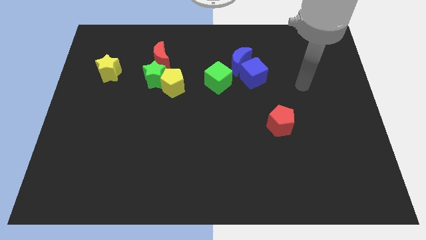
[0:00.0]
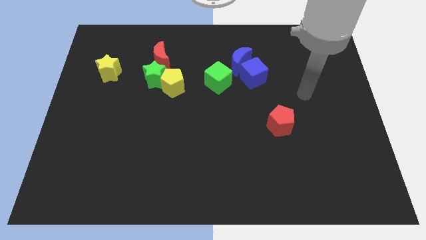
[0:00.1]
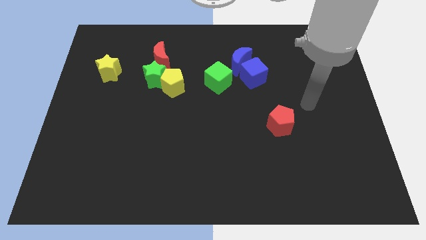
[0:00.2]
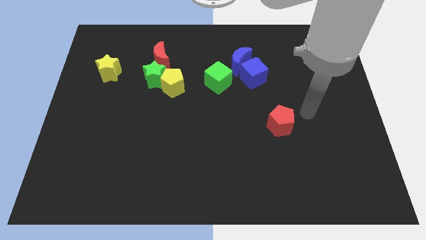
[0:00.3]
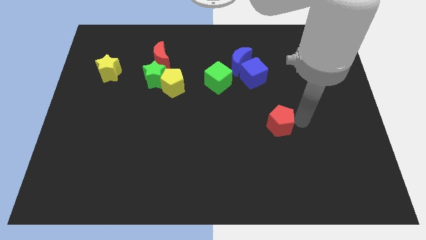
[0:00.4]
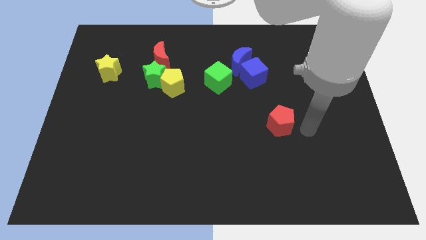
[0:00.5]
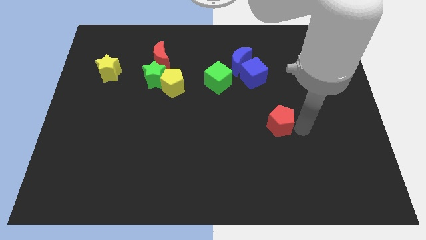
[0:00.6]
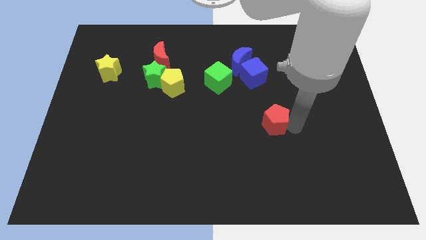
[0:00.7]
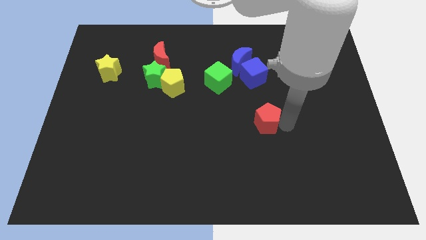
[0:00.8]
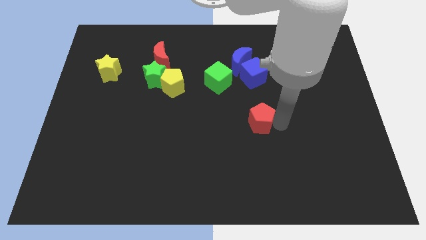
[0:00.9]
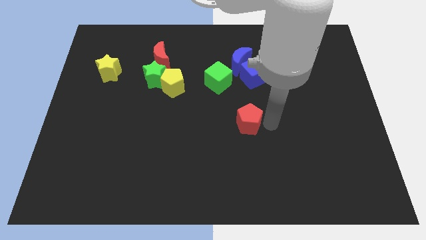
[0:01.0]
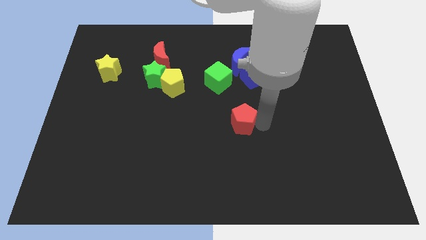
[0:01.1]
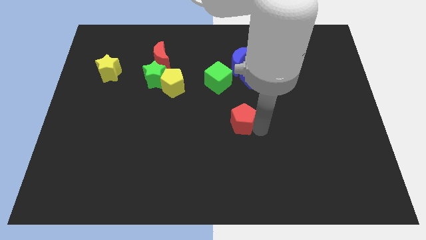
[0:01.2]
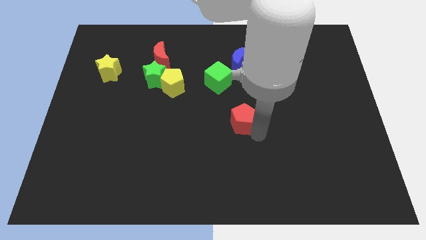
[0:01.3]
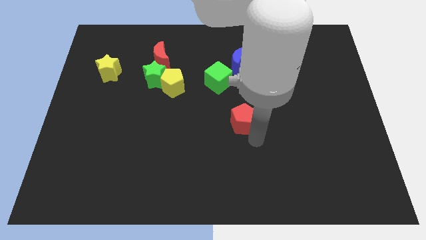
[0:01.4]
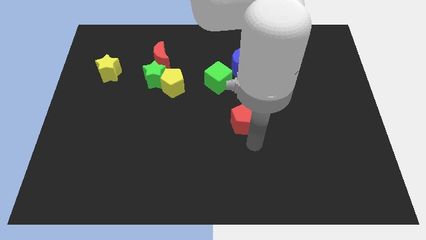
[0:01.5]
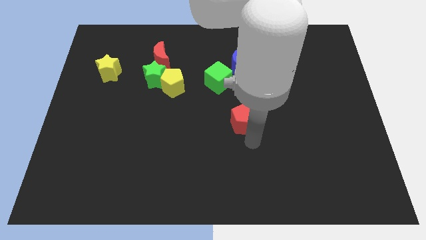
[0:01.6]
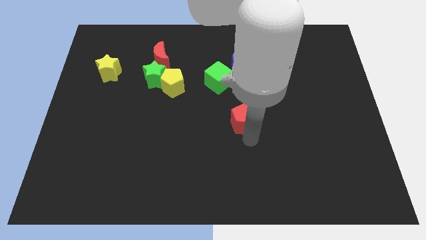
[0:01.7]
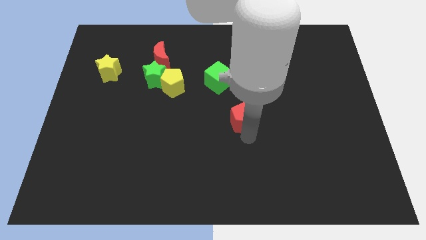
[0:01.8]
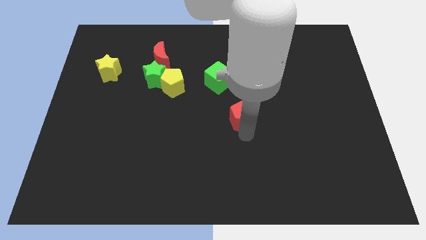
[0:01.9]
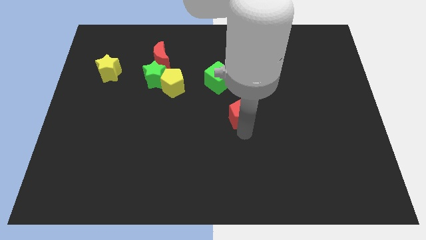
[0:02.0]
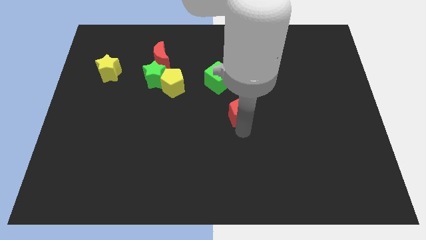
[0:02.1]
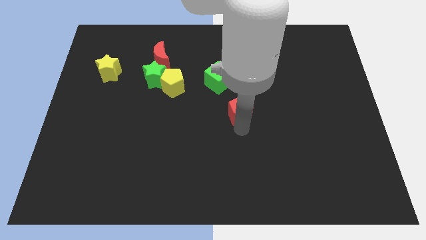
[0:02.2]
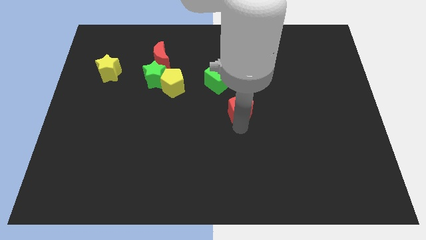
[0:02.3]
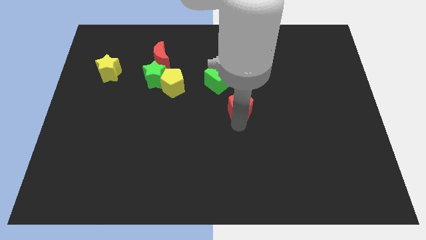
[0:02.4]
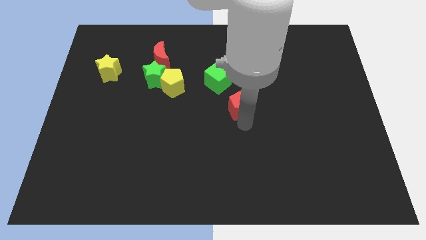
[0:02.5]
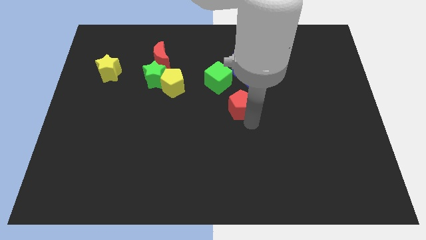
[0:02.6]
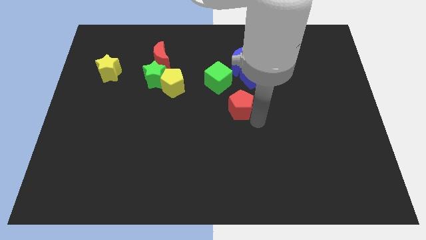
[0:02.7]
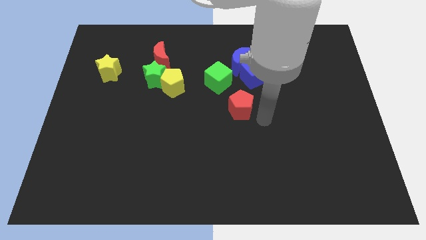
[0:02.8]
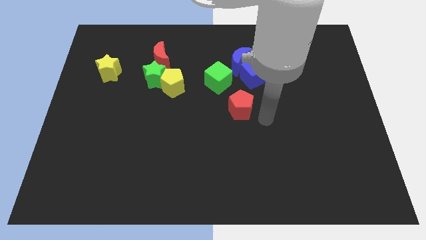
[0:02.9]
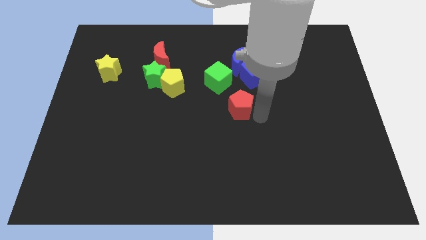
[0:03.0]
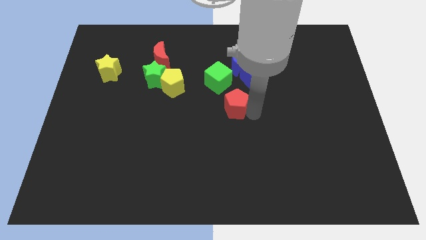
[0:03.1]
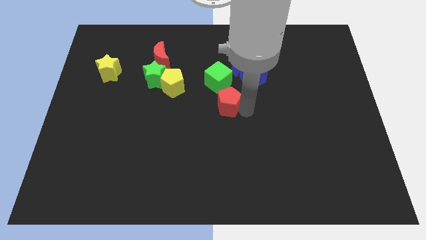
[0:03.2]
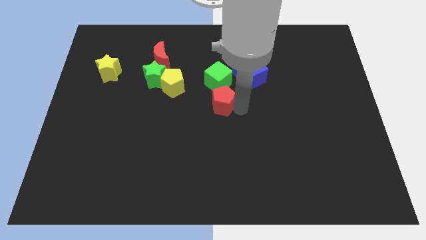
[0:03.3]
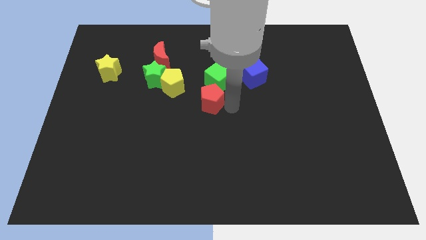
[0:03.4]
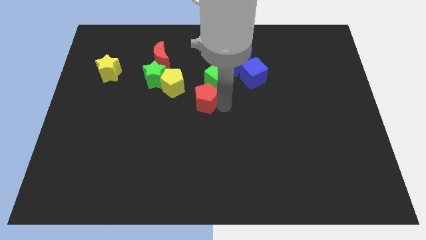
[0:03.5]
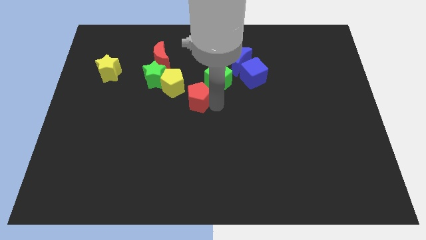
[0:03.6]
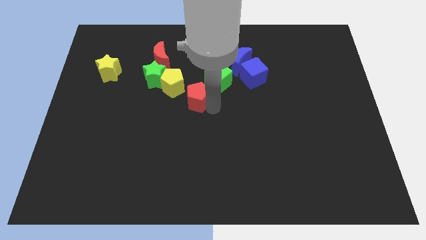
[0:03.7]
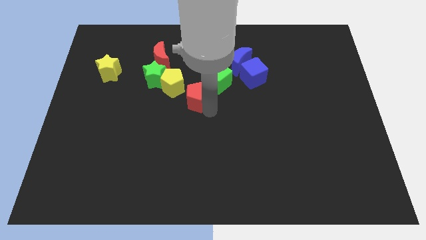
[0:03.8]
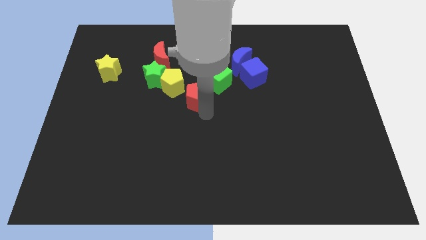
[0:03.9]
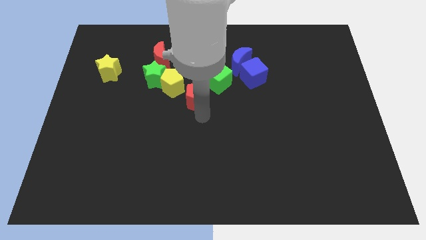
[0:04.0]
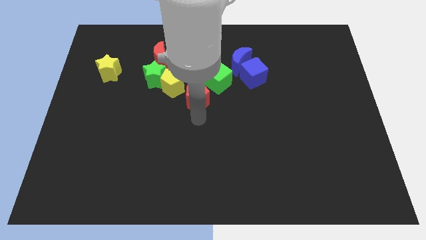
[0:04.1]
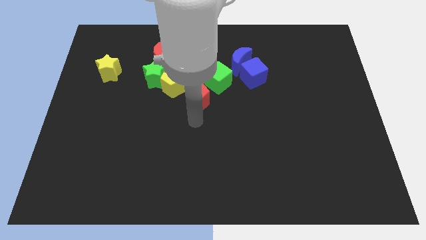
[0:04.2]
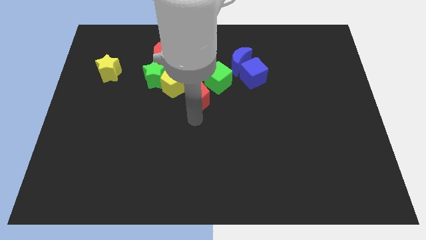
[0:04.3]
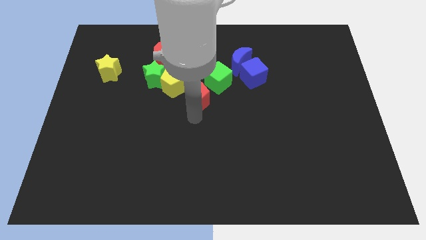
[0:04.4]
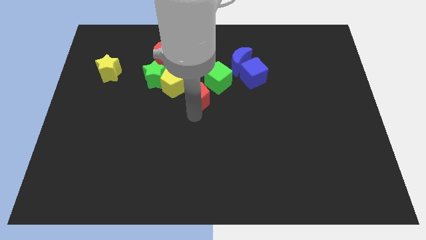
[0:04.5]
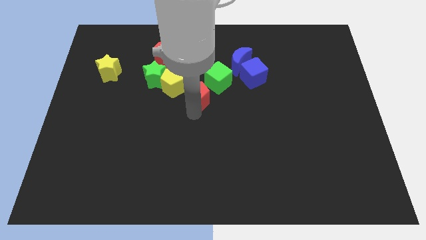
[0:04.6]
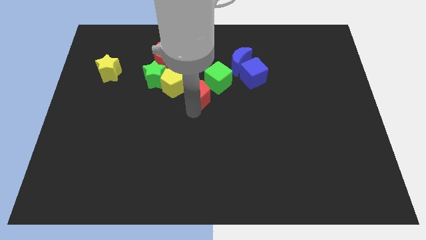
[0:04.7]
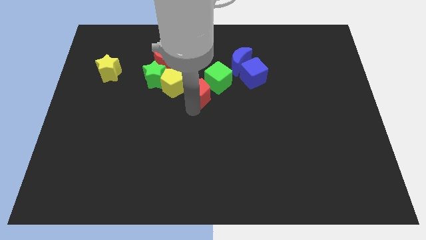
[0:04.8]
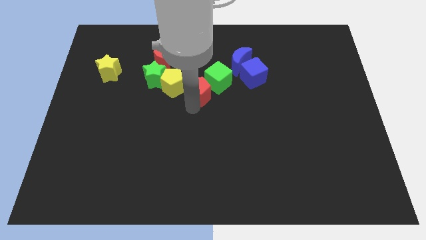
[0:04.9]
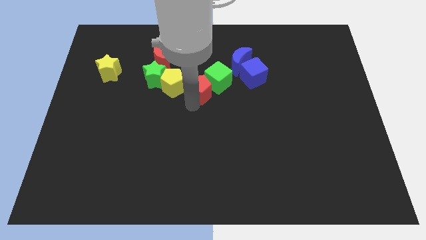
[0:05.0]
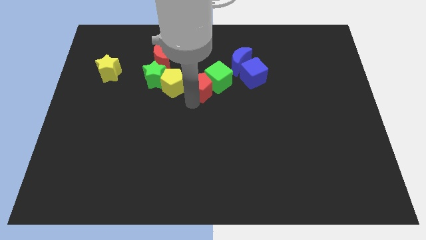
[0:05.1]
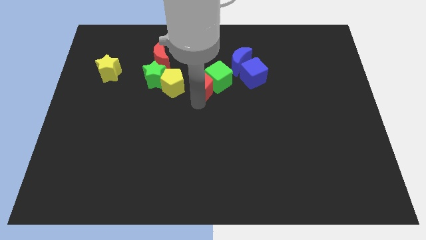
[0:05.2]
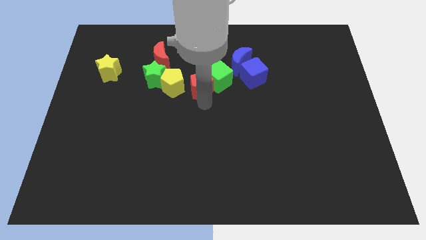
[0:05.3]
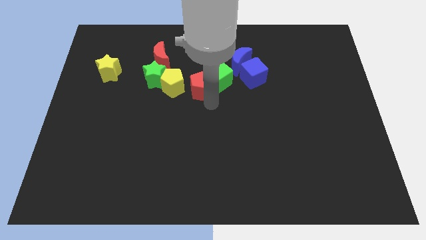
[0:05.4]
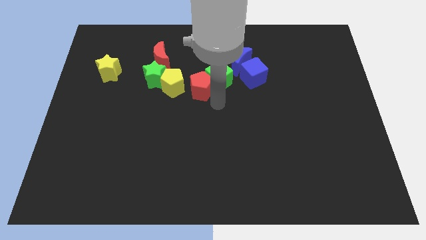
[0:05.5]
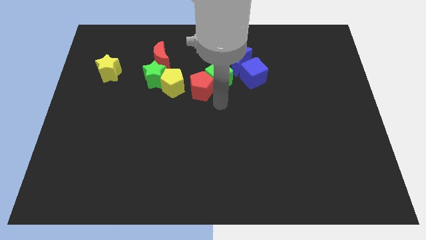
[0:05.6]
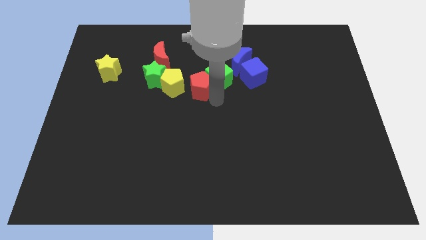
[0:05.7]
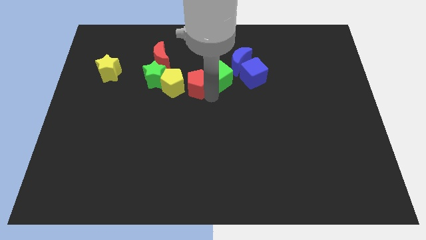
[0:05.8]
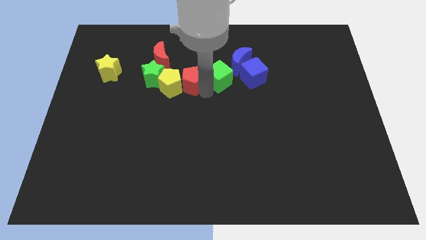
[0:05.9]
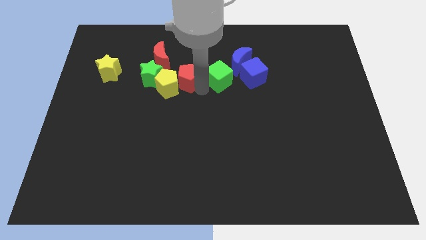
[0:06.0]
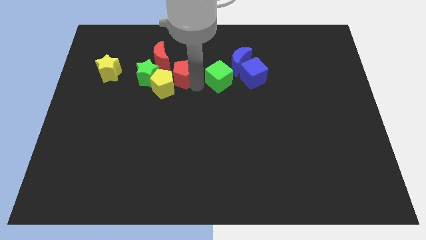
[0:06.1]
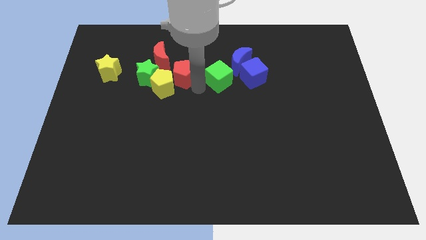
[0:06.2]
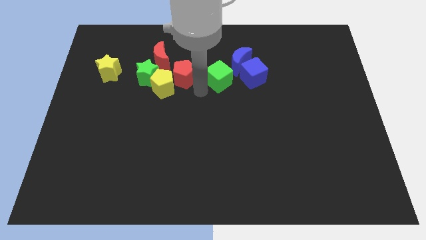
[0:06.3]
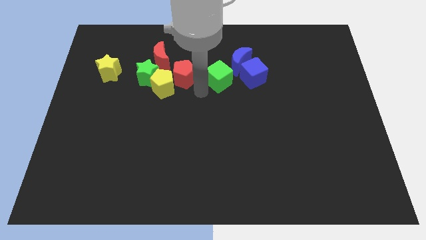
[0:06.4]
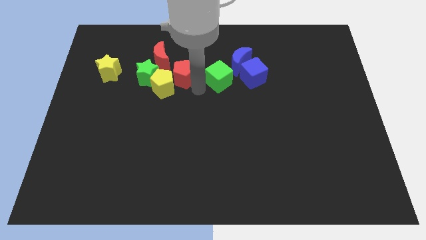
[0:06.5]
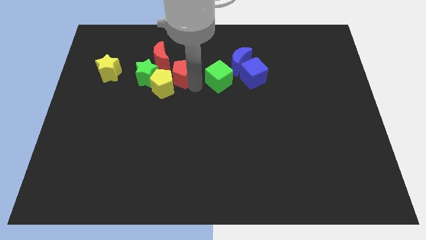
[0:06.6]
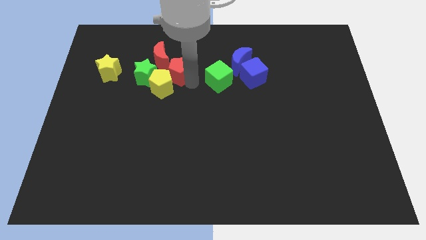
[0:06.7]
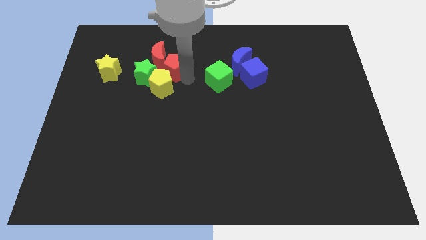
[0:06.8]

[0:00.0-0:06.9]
slide the red pentagon towards the red moon

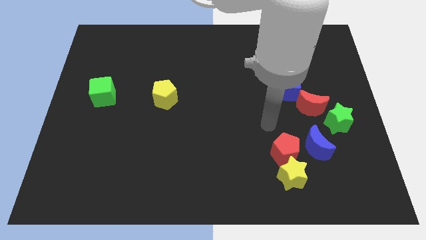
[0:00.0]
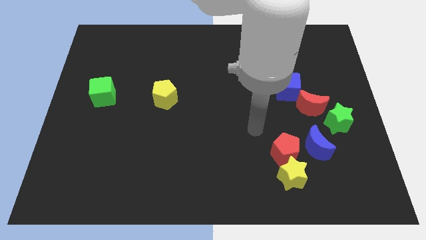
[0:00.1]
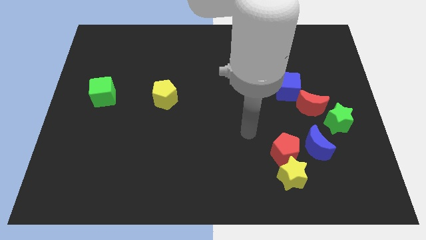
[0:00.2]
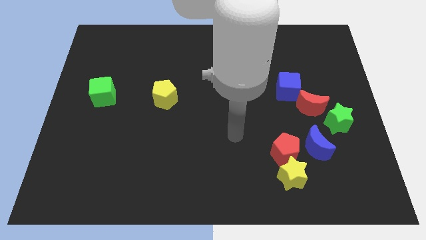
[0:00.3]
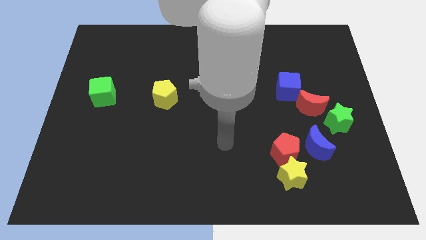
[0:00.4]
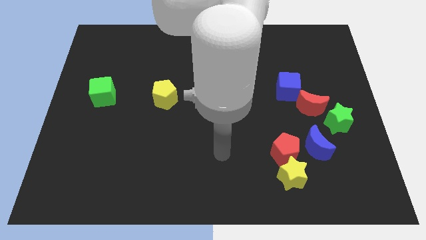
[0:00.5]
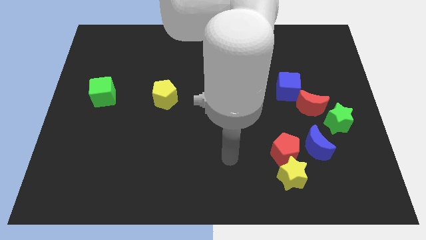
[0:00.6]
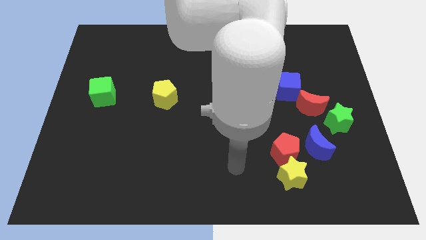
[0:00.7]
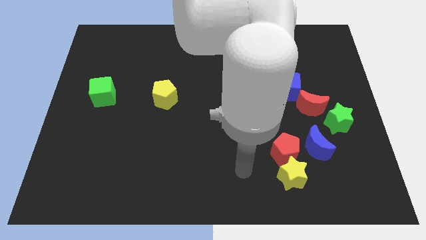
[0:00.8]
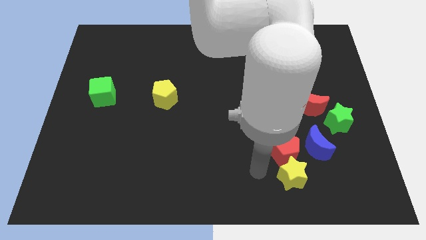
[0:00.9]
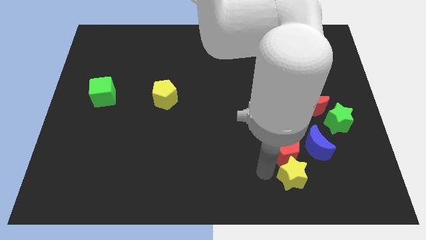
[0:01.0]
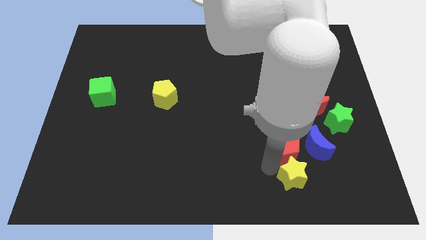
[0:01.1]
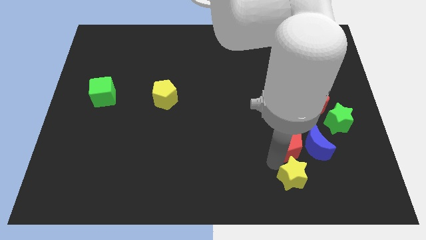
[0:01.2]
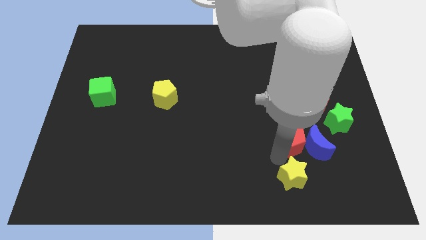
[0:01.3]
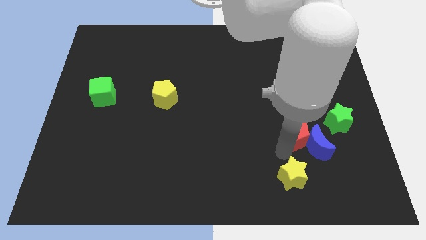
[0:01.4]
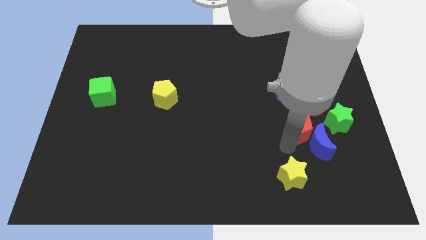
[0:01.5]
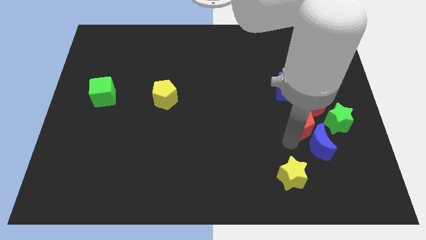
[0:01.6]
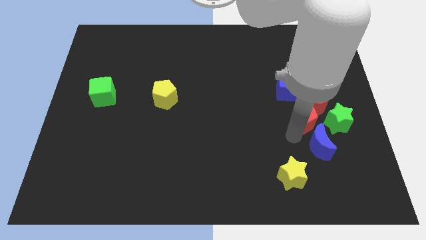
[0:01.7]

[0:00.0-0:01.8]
push the red pentagon next to the red moon
